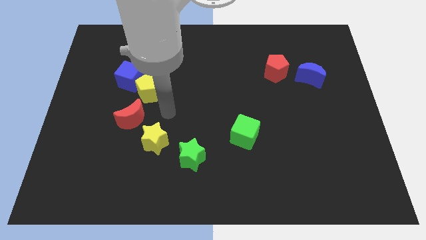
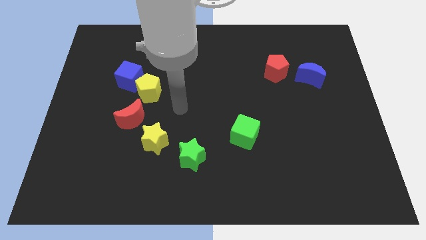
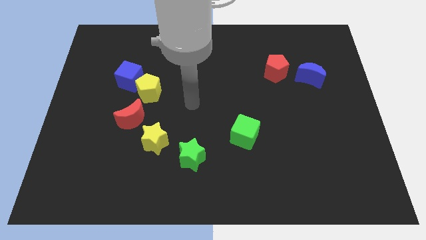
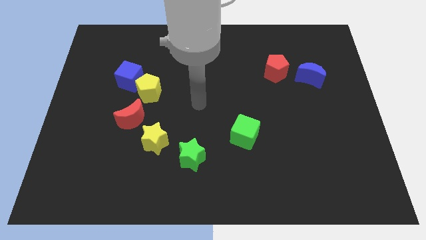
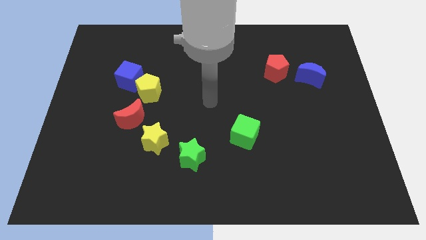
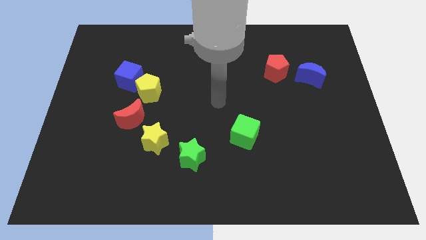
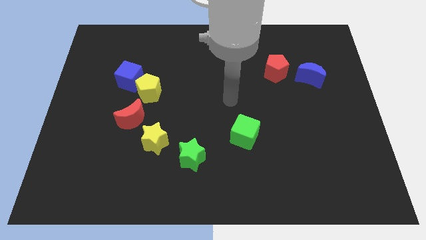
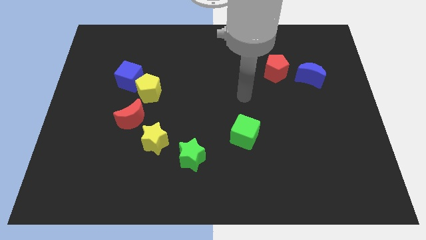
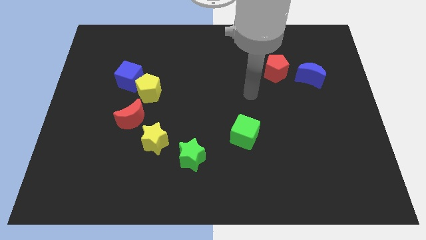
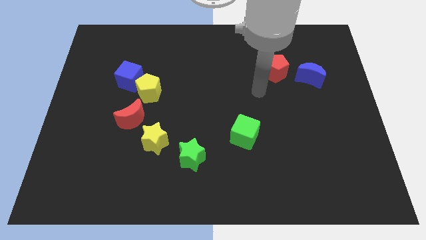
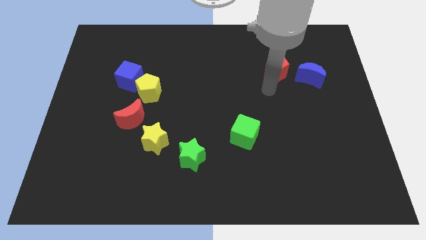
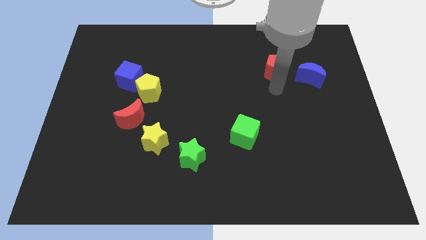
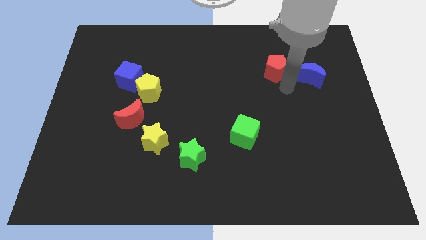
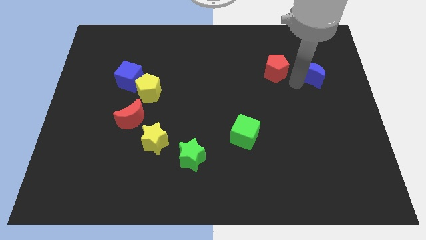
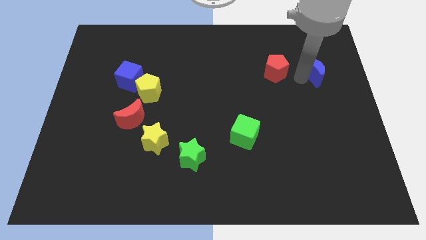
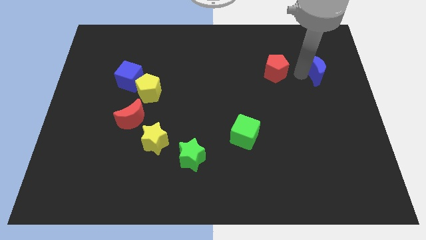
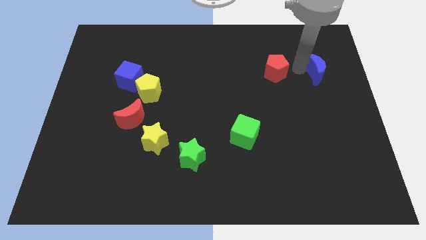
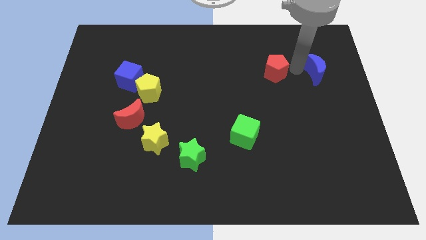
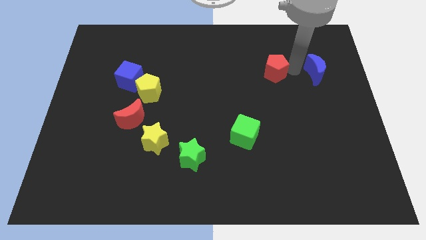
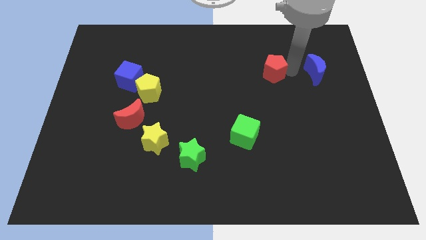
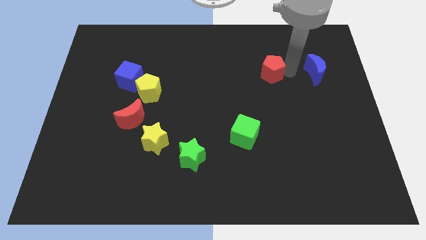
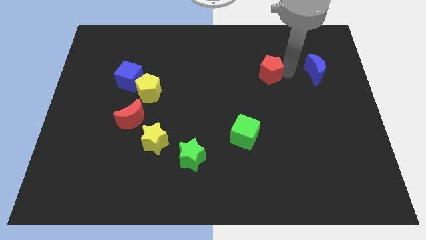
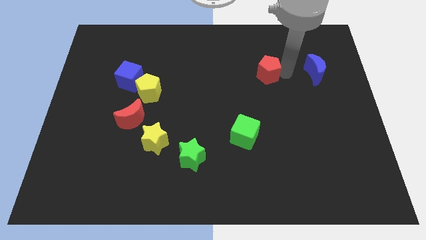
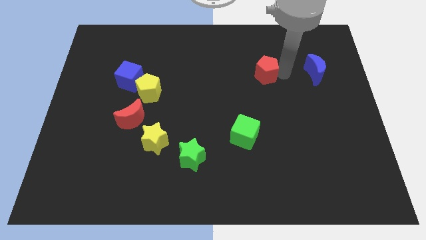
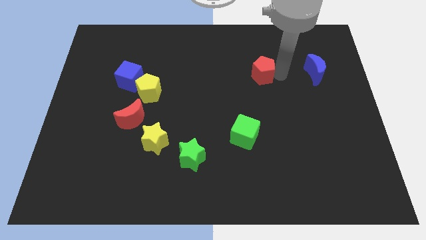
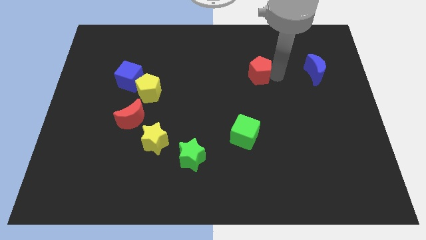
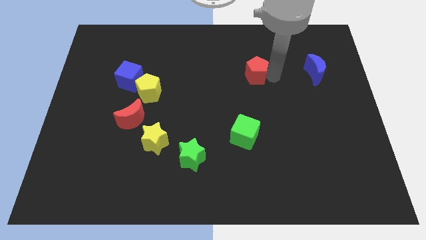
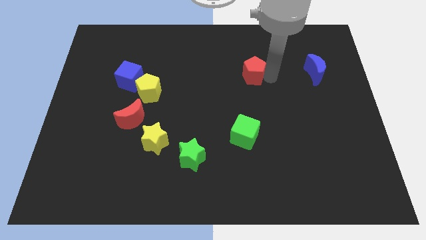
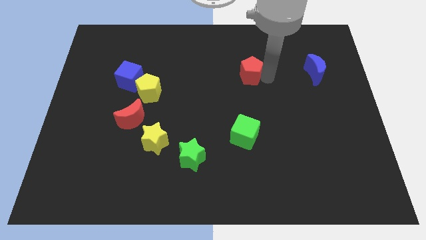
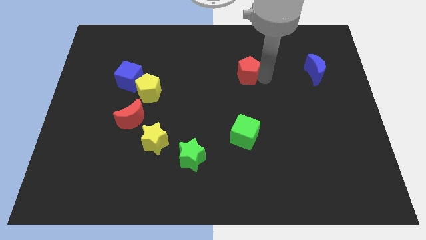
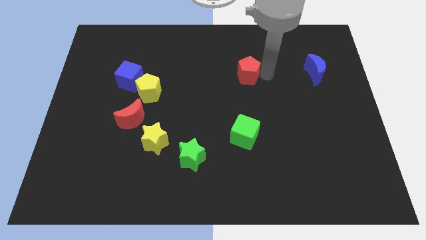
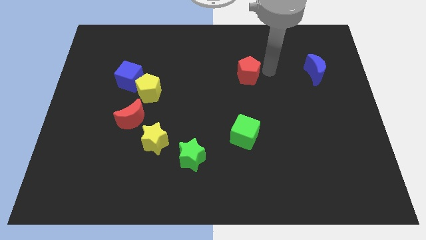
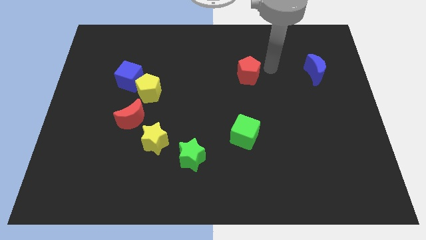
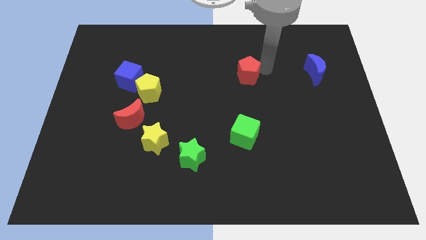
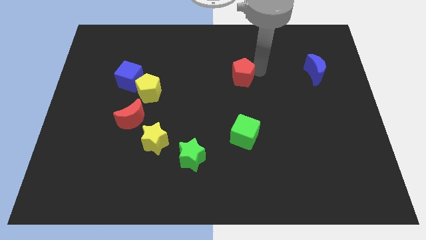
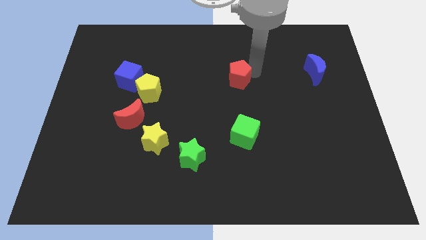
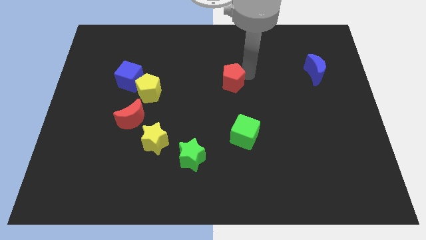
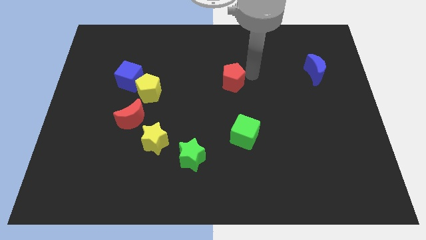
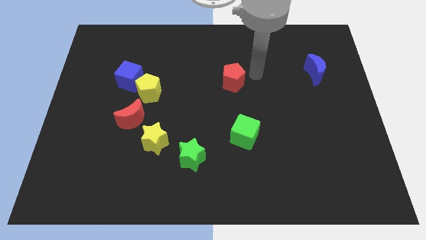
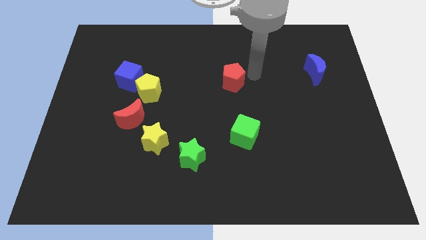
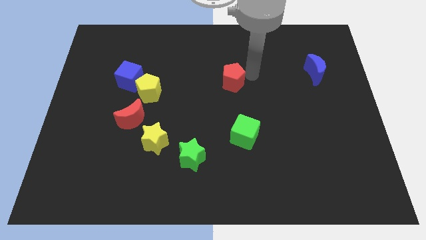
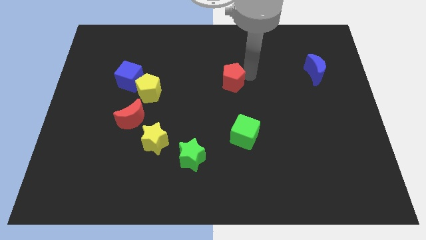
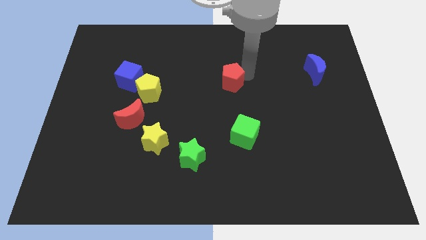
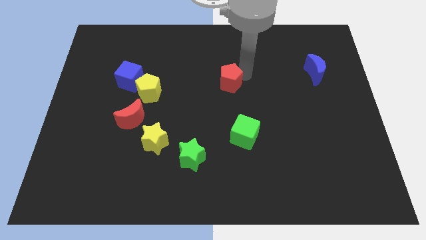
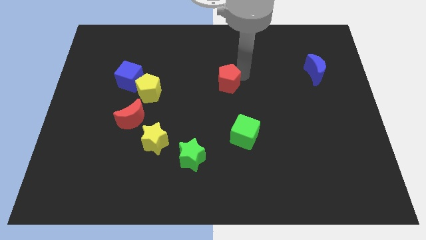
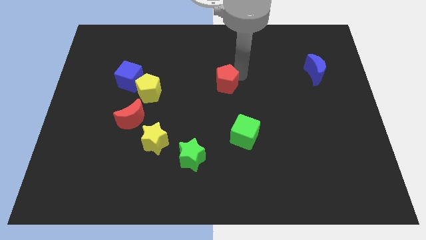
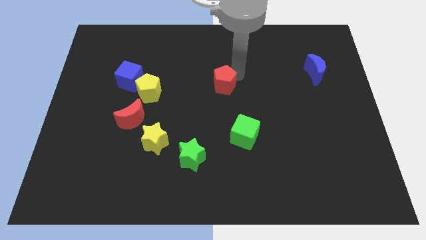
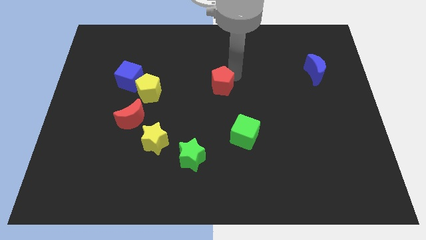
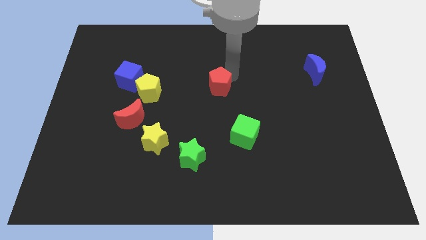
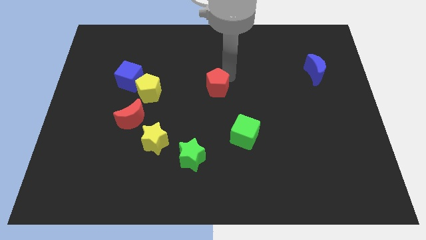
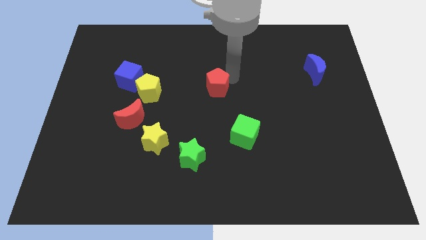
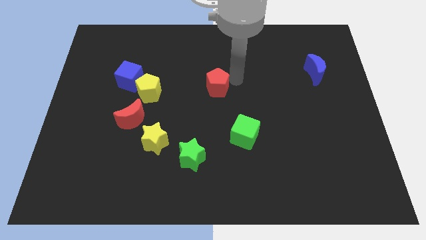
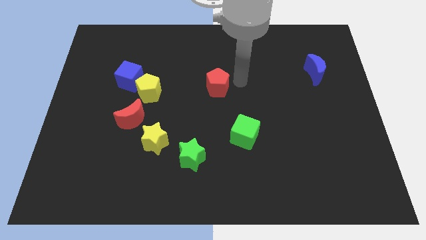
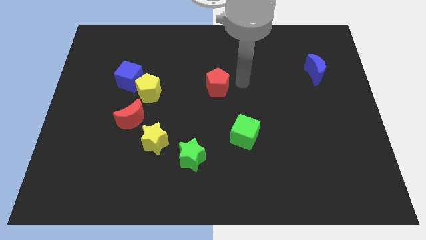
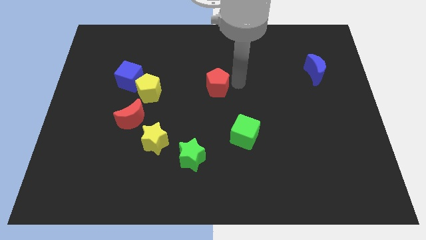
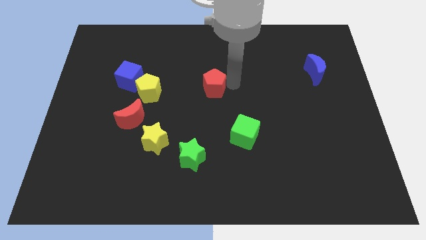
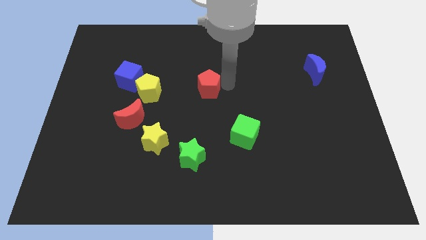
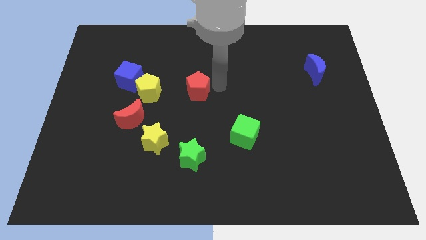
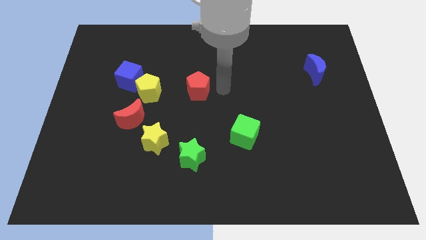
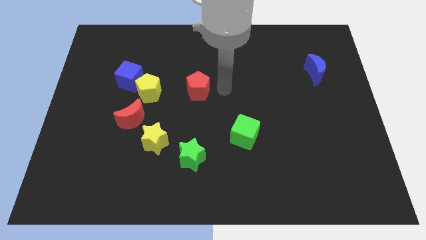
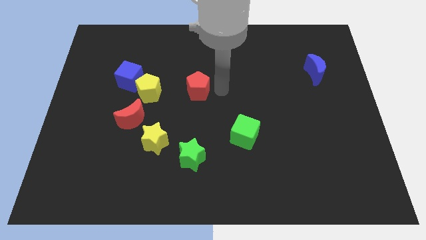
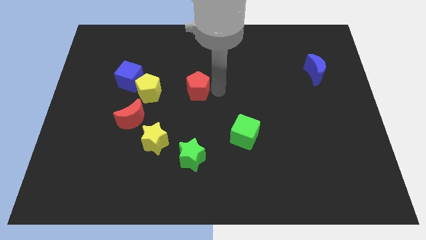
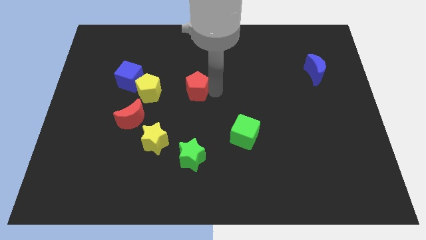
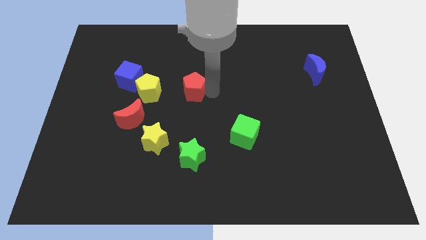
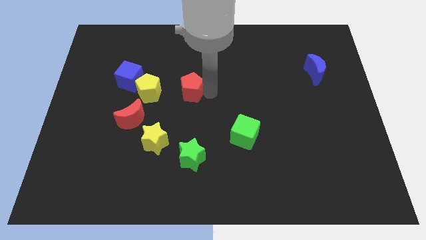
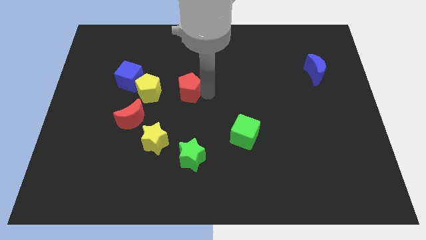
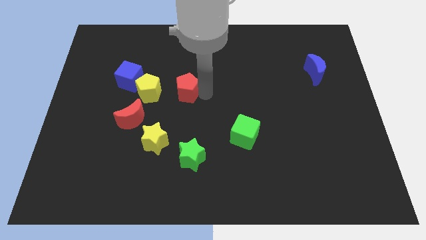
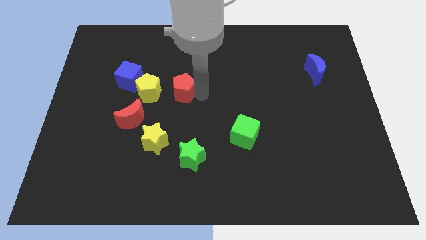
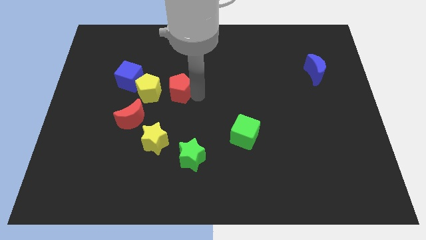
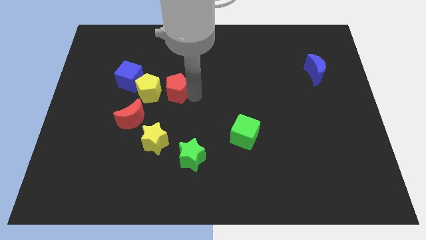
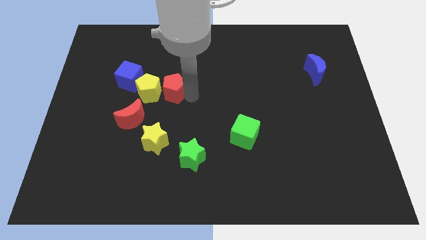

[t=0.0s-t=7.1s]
slide the red pentagon close to the yellow pentagon

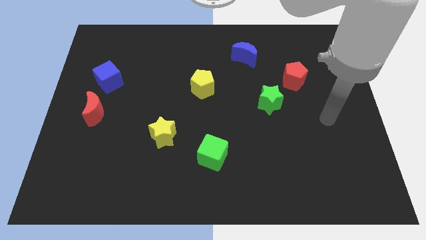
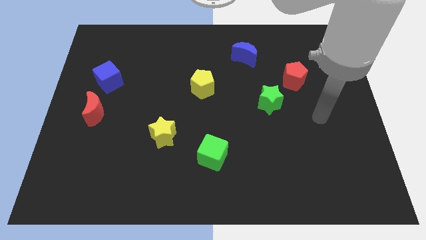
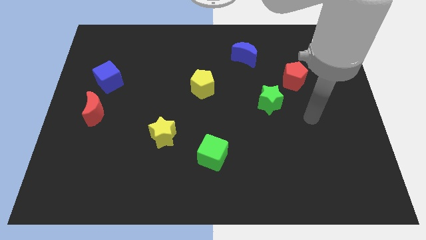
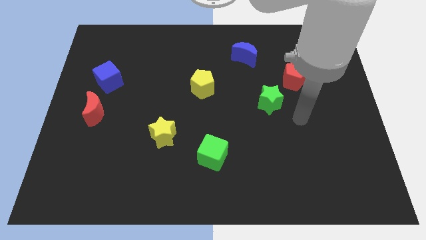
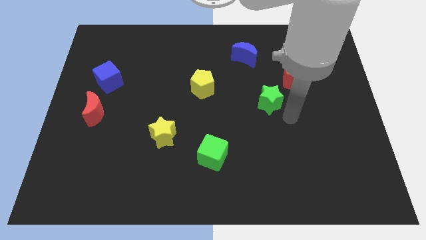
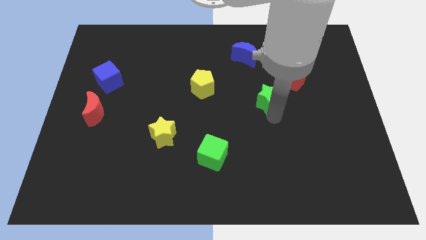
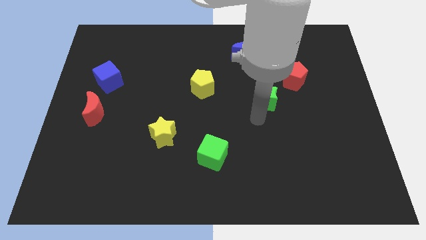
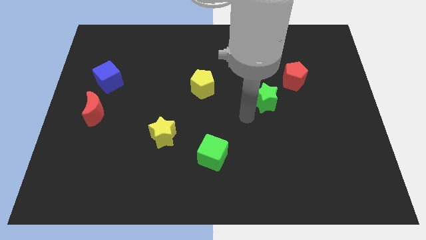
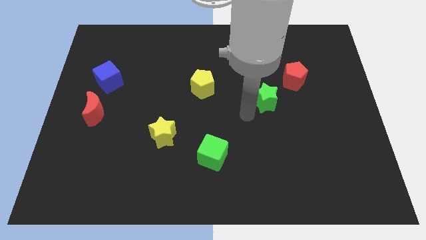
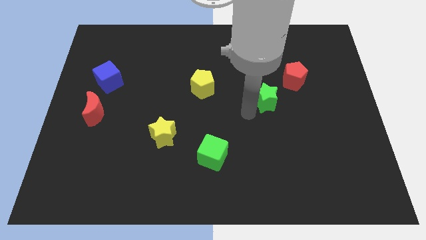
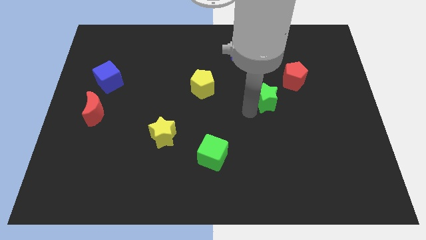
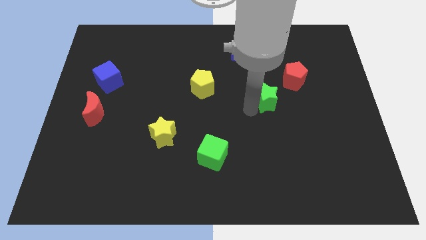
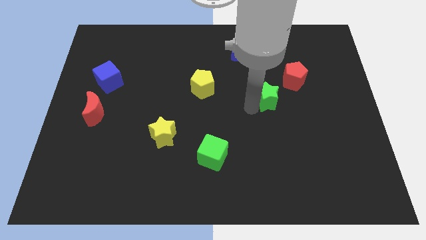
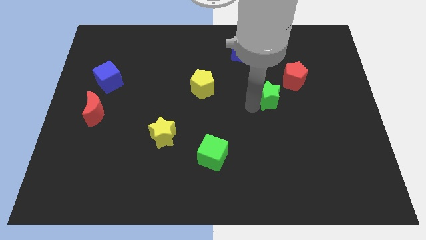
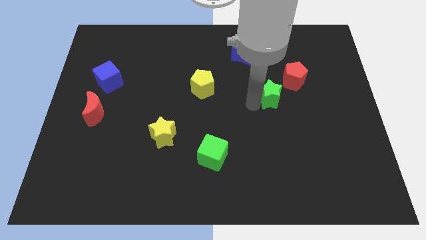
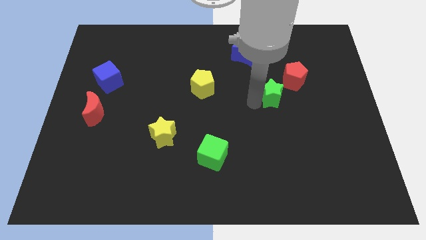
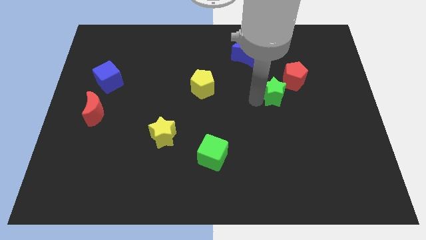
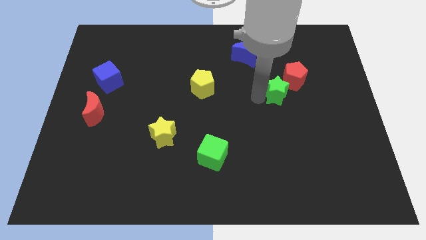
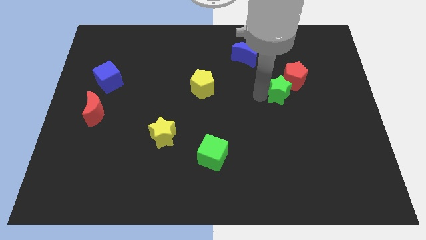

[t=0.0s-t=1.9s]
slide the green star to the red pentagon
